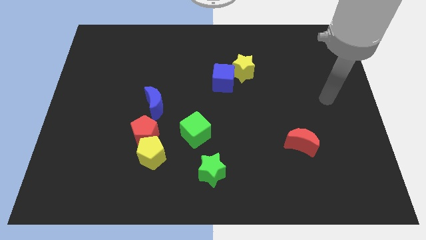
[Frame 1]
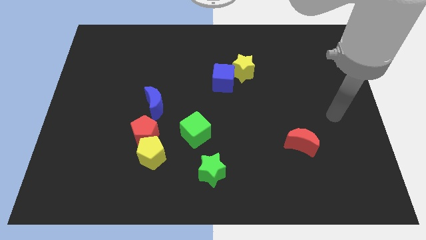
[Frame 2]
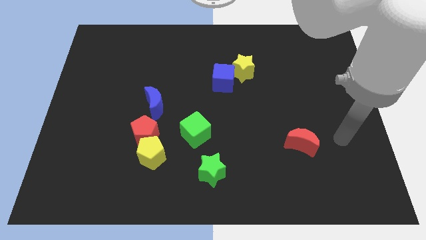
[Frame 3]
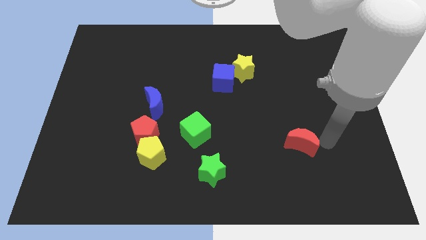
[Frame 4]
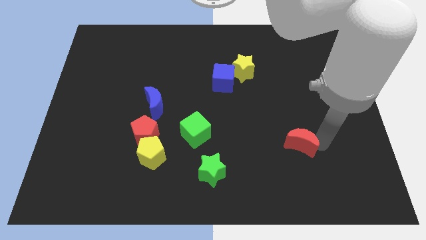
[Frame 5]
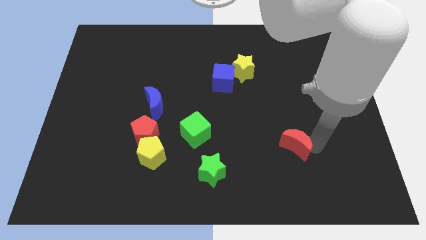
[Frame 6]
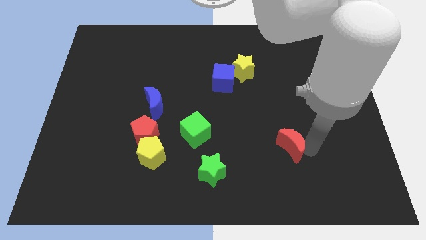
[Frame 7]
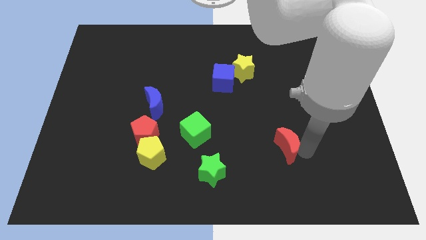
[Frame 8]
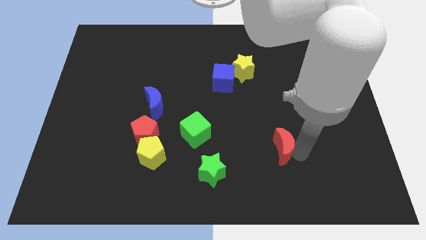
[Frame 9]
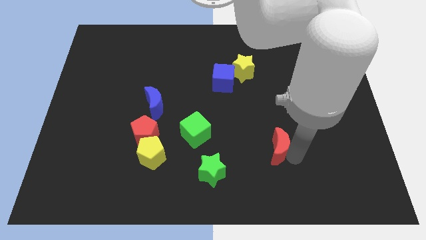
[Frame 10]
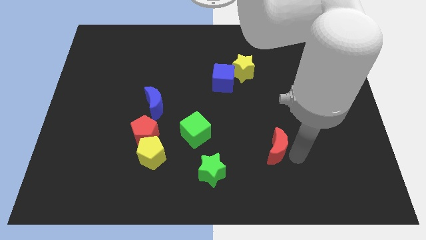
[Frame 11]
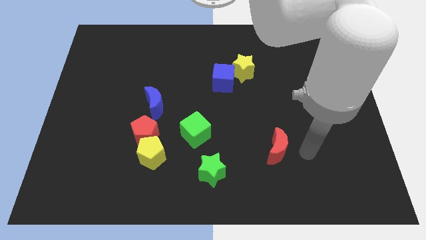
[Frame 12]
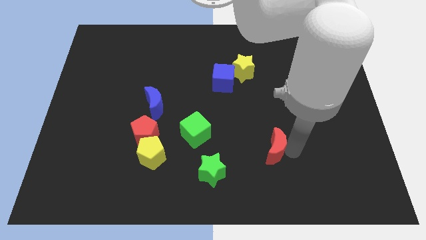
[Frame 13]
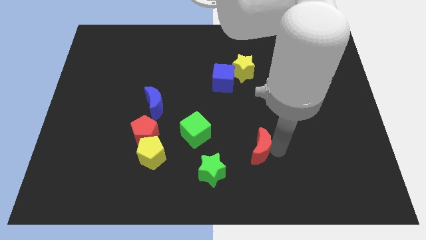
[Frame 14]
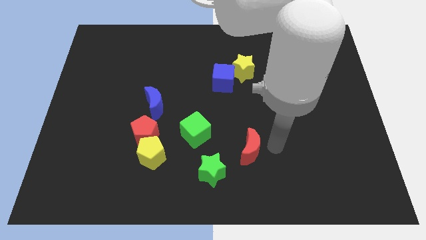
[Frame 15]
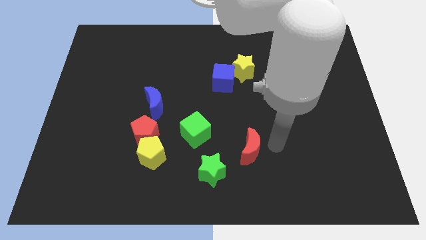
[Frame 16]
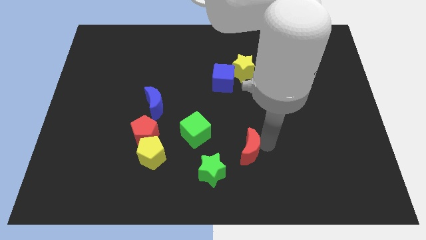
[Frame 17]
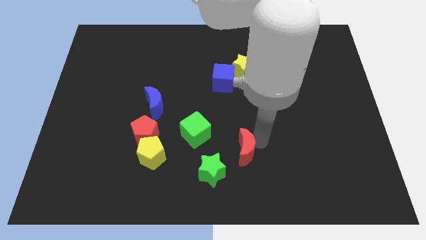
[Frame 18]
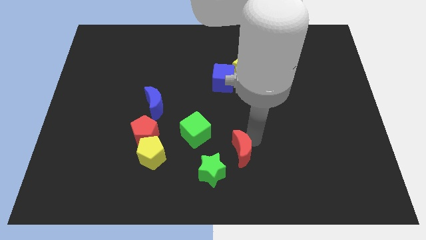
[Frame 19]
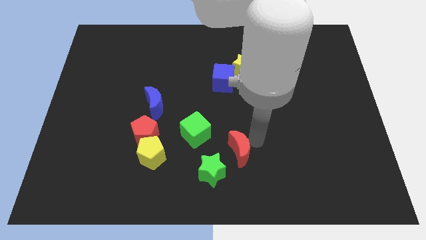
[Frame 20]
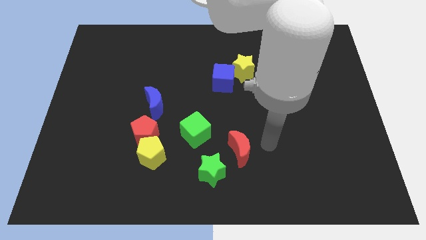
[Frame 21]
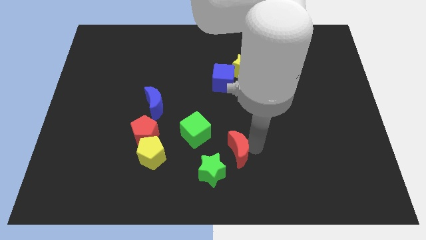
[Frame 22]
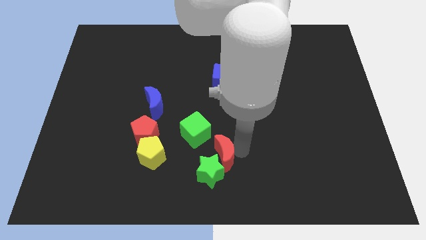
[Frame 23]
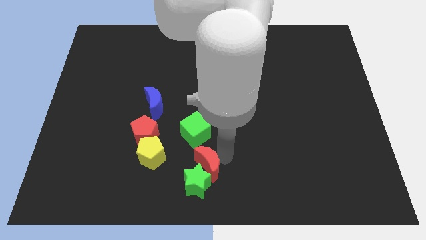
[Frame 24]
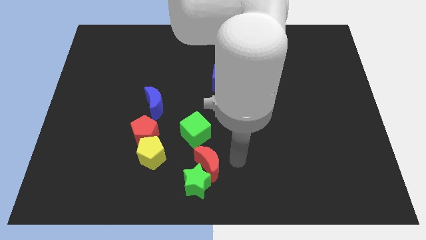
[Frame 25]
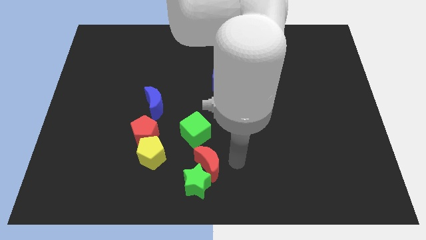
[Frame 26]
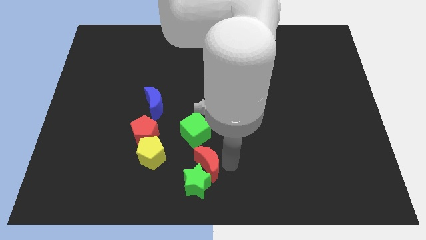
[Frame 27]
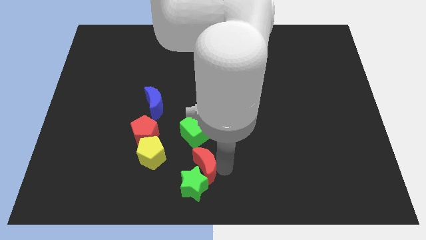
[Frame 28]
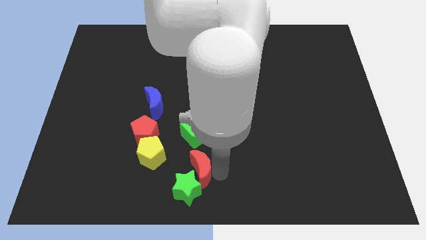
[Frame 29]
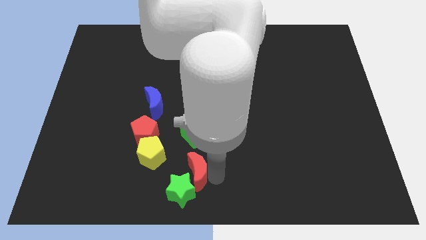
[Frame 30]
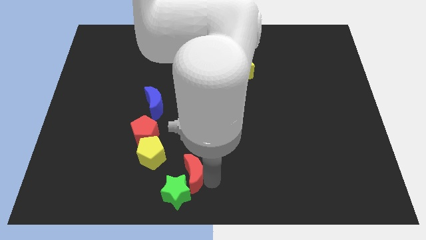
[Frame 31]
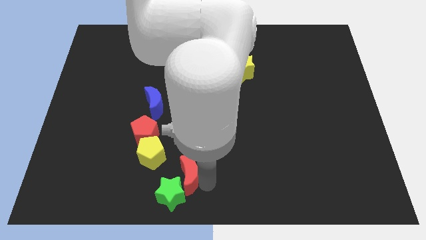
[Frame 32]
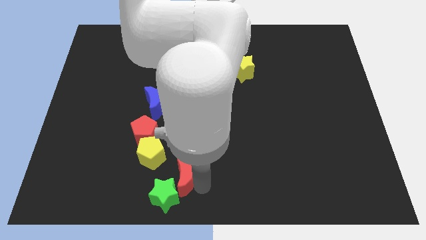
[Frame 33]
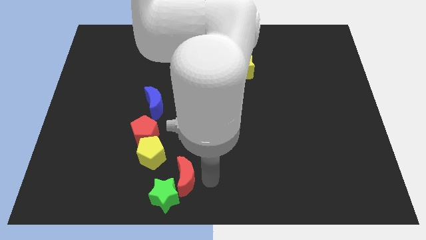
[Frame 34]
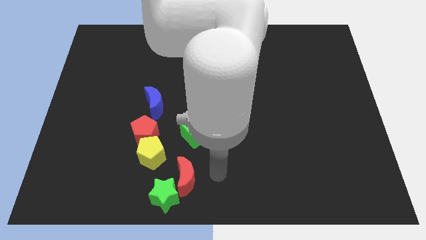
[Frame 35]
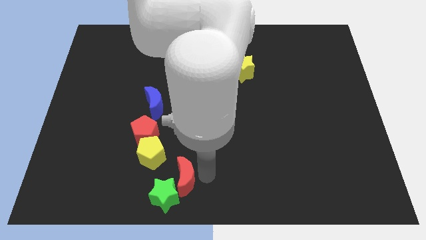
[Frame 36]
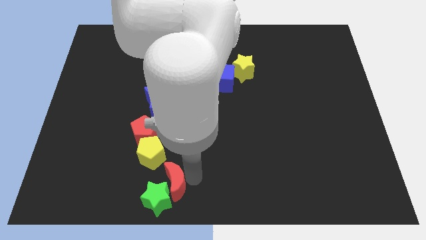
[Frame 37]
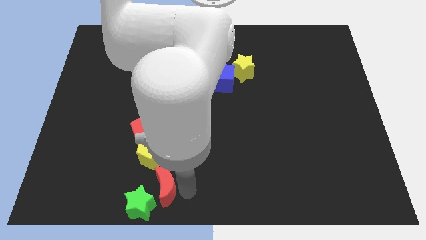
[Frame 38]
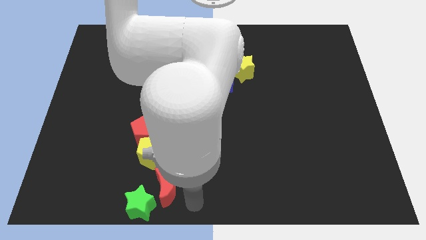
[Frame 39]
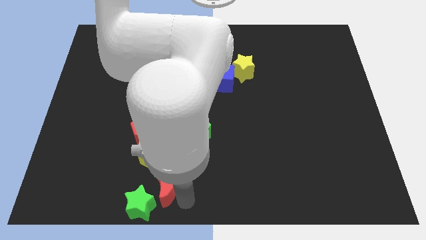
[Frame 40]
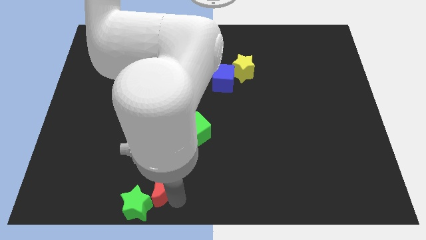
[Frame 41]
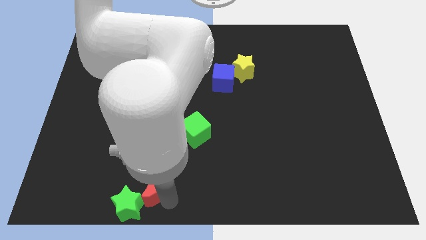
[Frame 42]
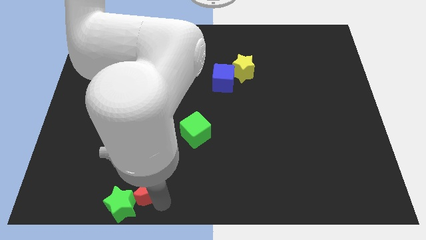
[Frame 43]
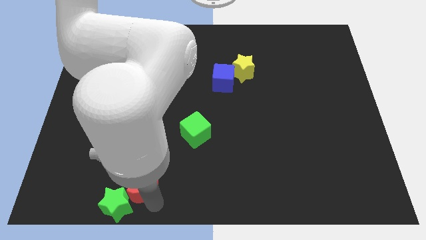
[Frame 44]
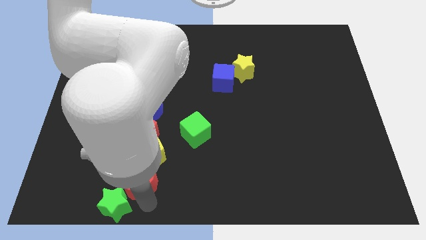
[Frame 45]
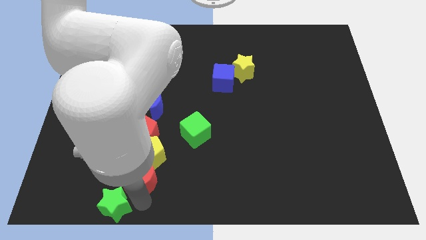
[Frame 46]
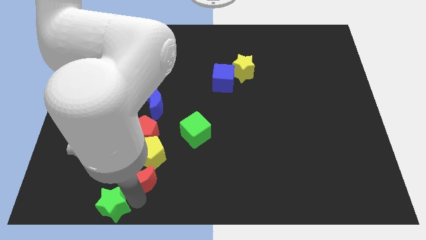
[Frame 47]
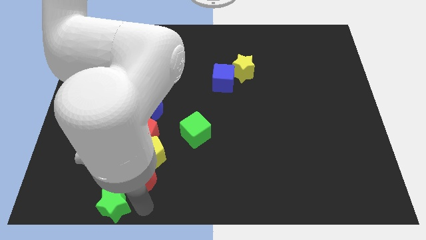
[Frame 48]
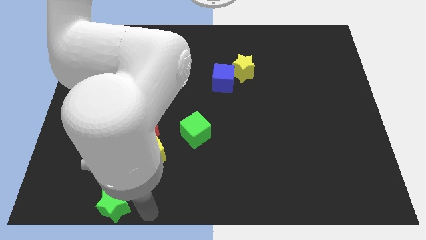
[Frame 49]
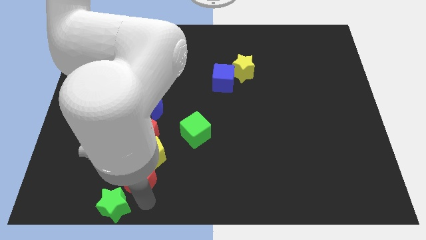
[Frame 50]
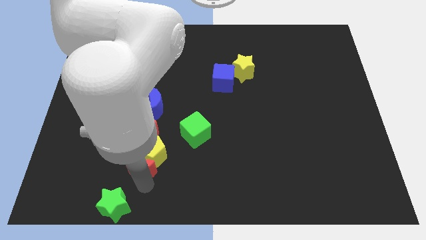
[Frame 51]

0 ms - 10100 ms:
move the red moon just left of the yellow pentagon

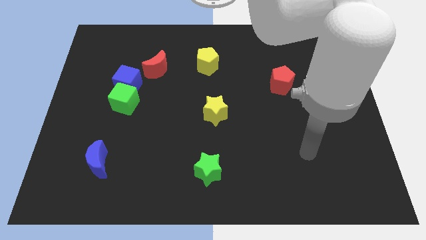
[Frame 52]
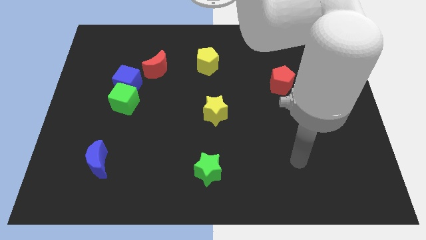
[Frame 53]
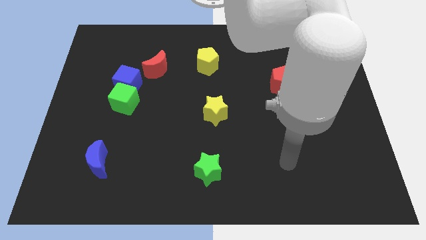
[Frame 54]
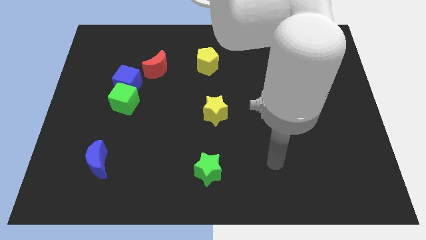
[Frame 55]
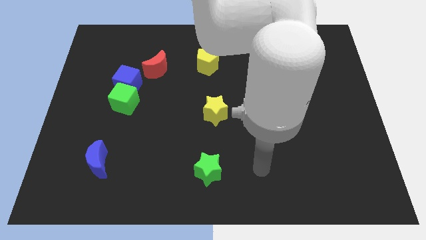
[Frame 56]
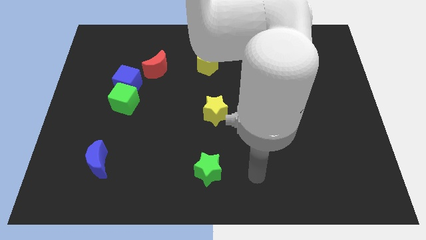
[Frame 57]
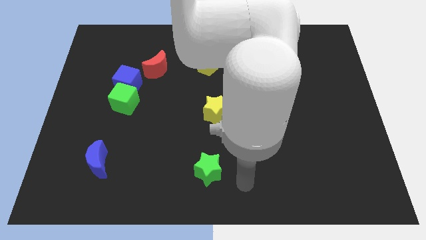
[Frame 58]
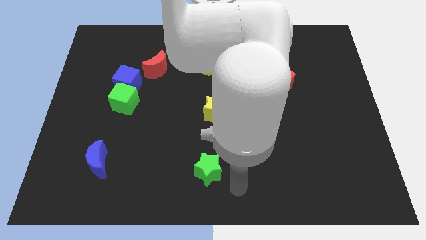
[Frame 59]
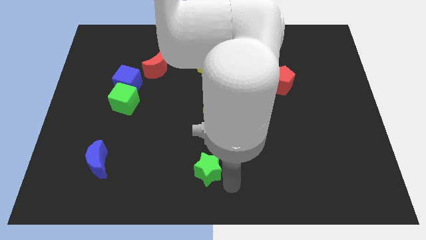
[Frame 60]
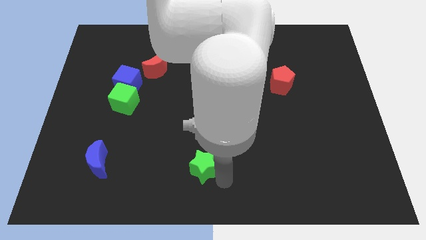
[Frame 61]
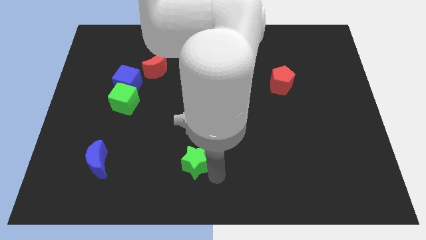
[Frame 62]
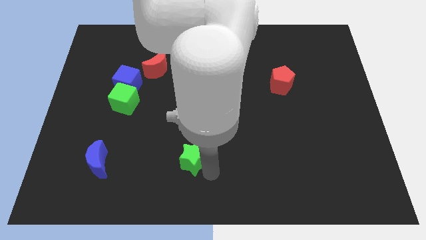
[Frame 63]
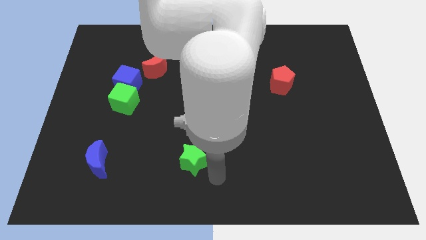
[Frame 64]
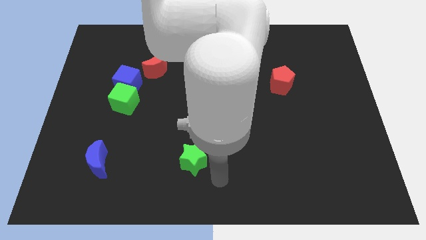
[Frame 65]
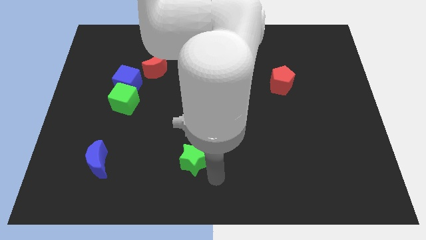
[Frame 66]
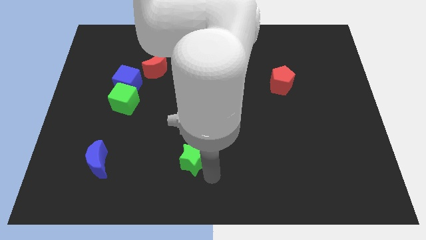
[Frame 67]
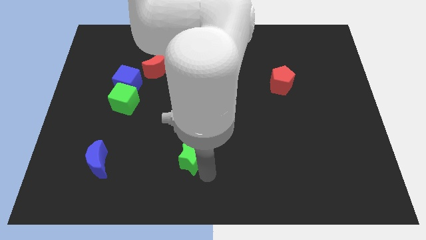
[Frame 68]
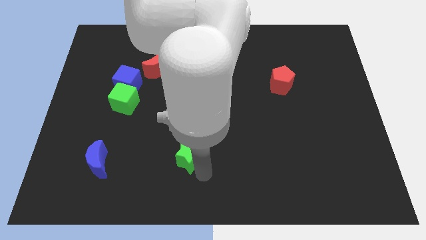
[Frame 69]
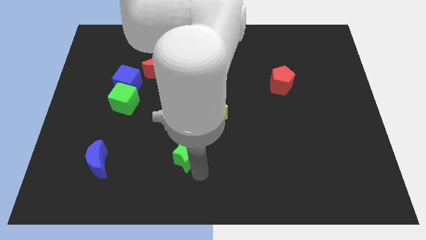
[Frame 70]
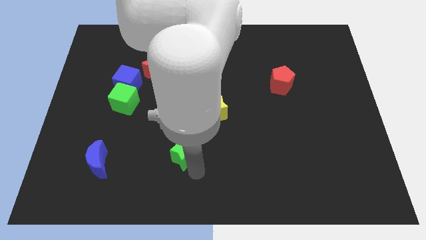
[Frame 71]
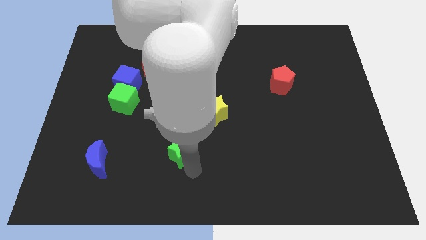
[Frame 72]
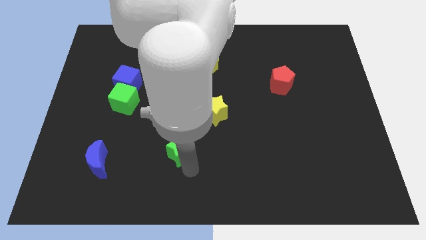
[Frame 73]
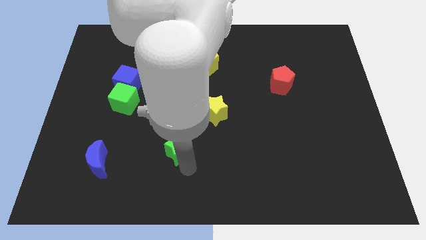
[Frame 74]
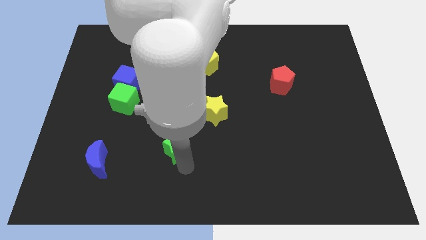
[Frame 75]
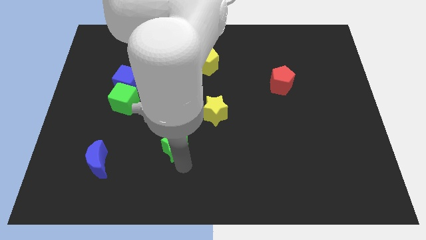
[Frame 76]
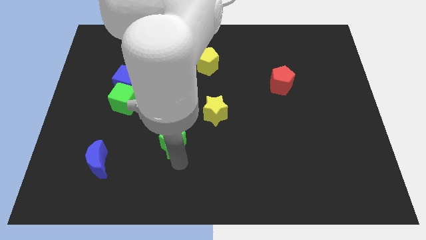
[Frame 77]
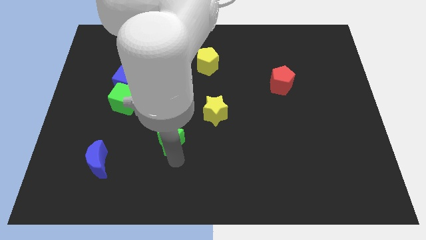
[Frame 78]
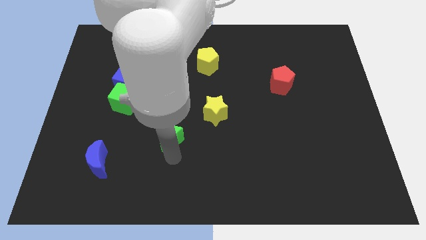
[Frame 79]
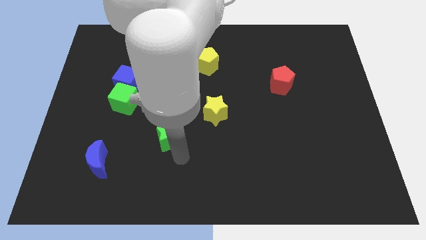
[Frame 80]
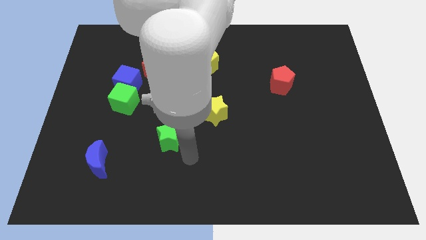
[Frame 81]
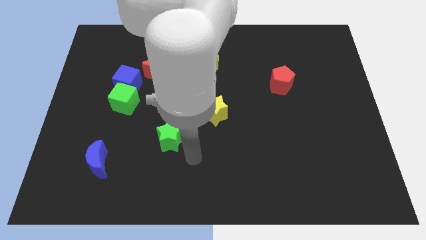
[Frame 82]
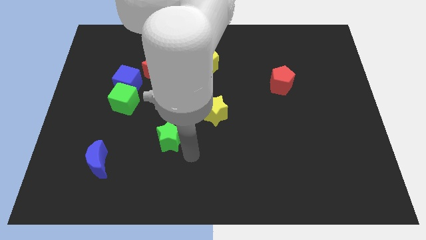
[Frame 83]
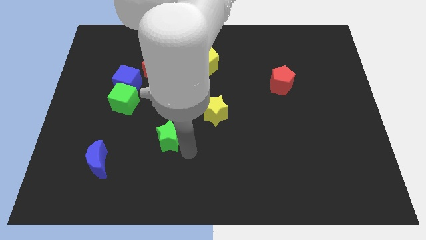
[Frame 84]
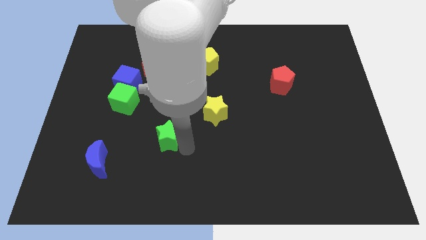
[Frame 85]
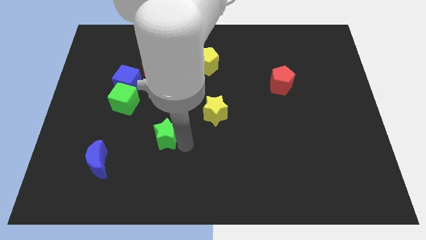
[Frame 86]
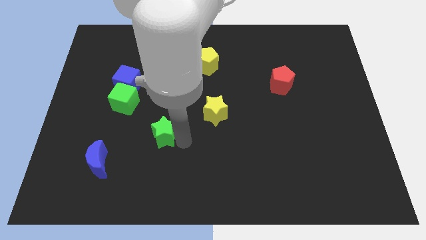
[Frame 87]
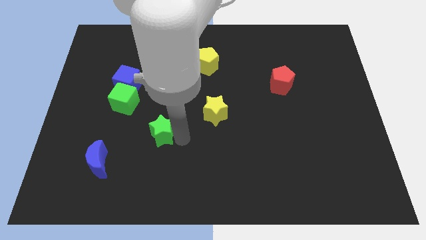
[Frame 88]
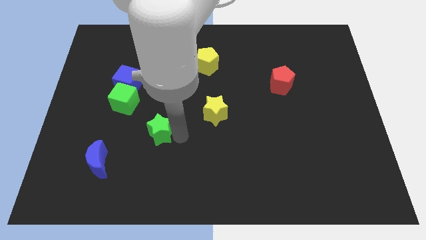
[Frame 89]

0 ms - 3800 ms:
move the green star diagonally down and to the right of the green cube
